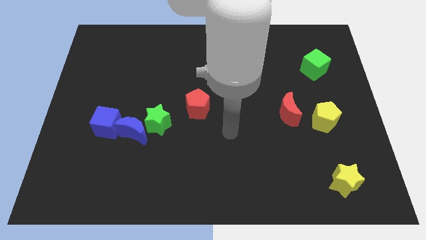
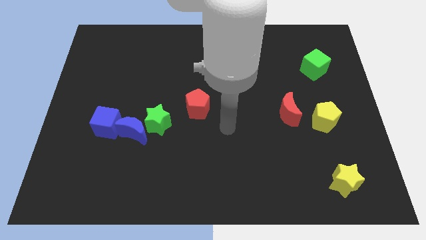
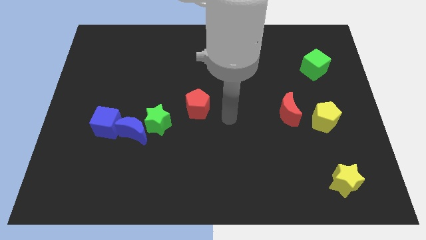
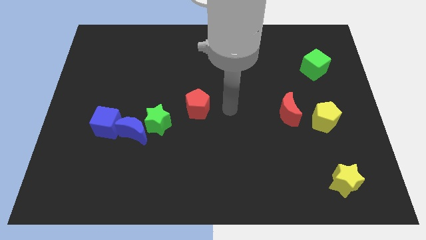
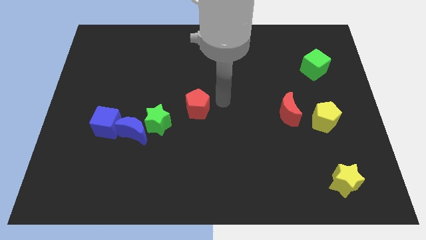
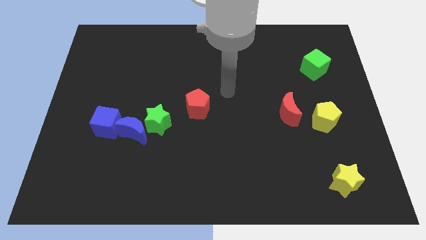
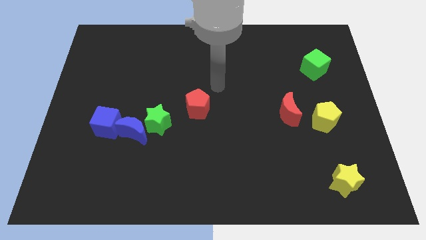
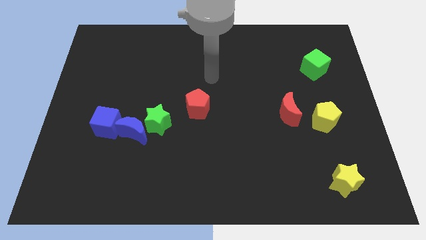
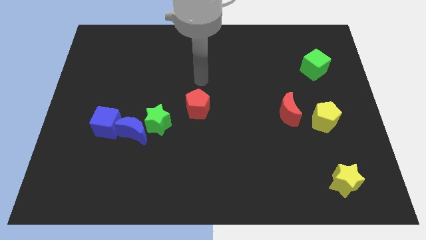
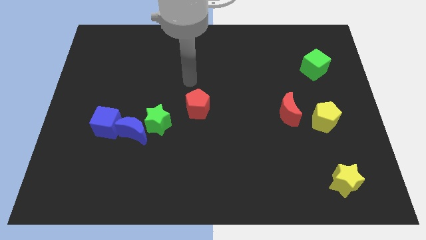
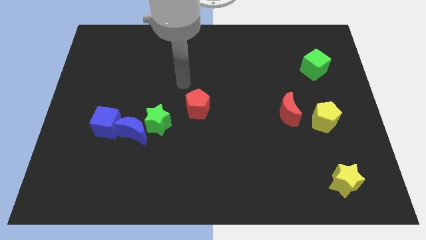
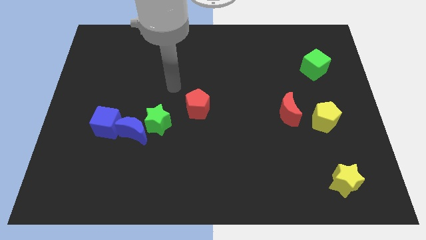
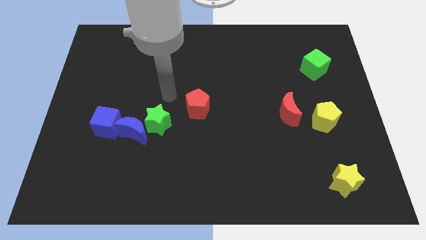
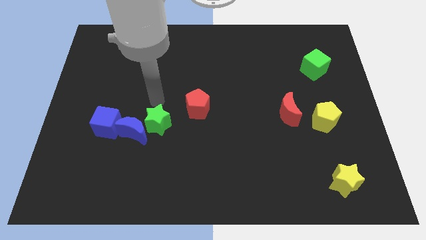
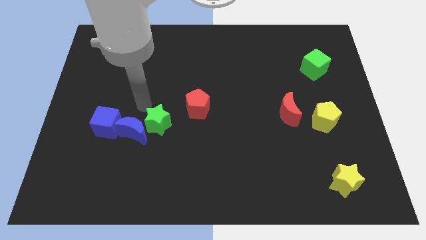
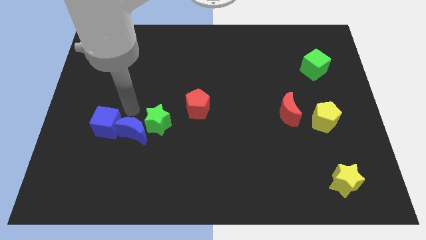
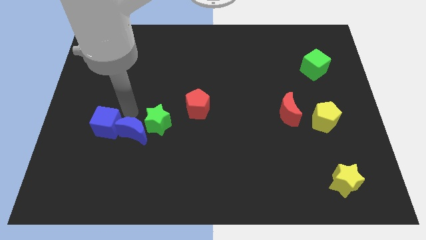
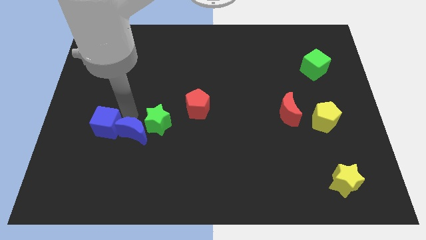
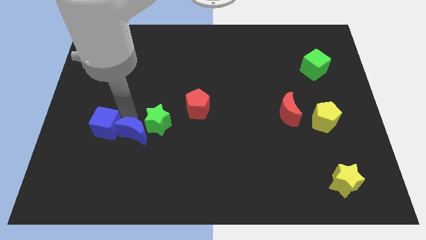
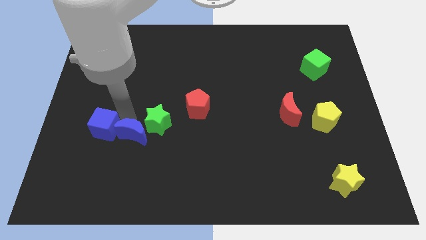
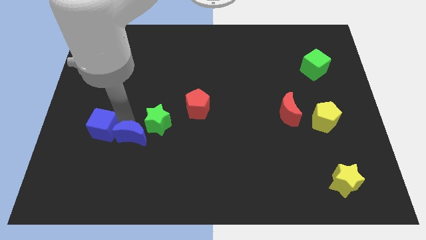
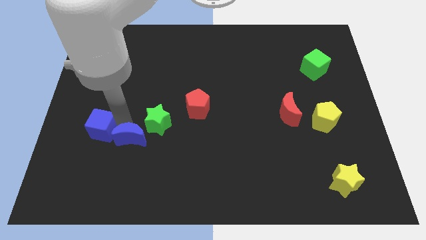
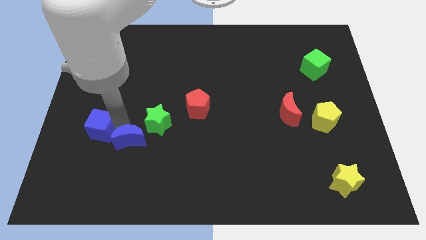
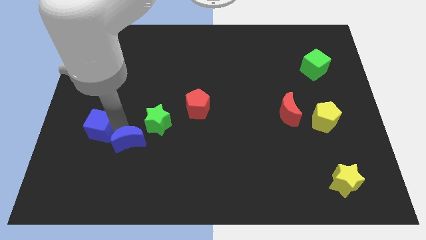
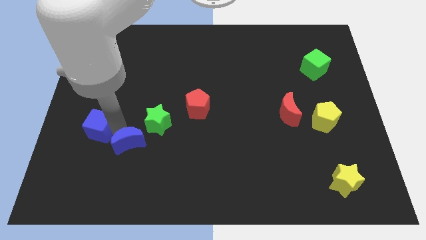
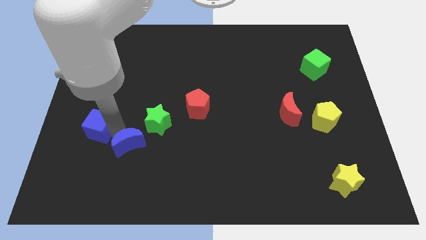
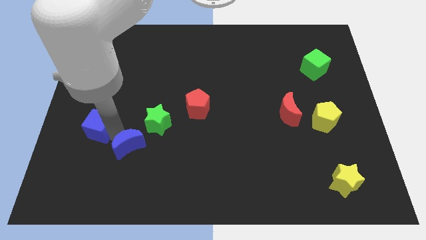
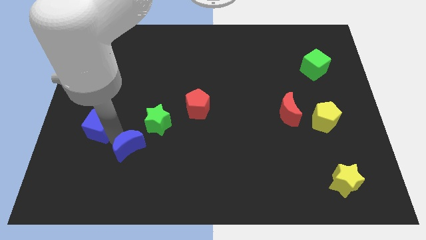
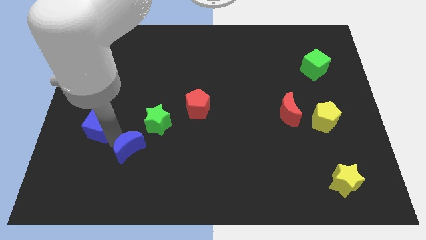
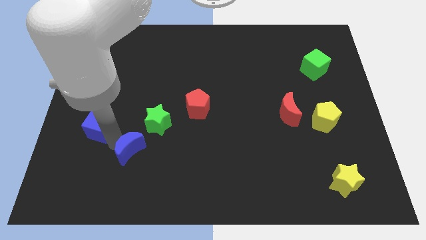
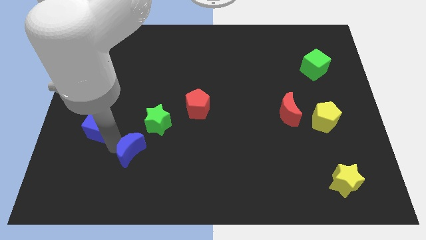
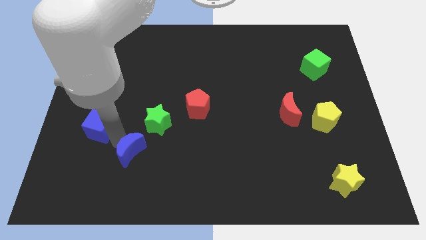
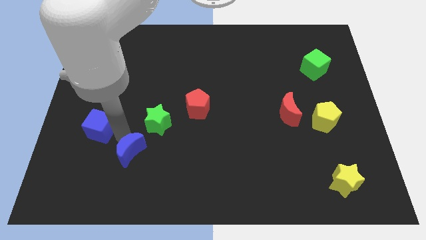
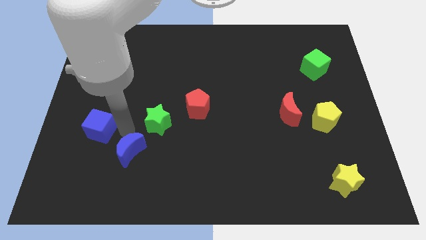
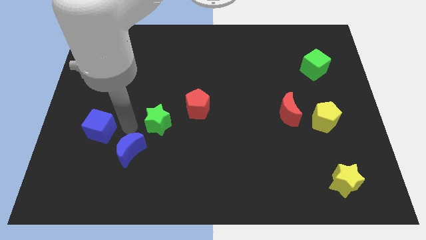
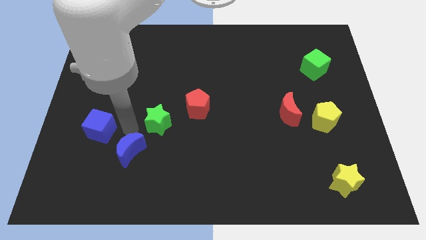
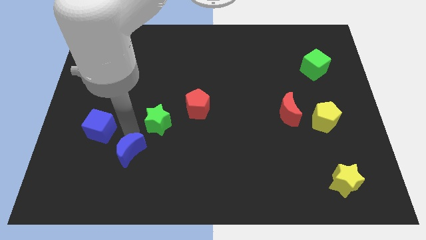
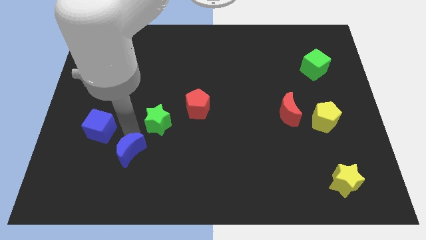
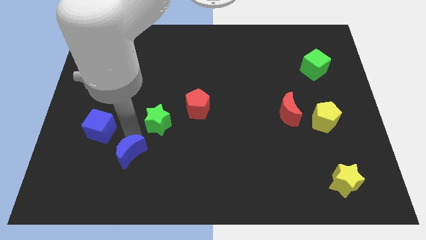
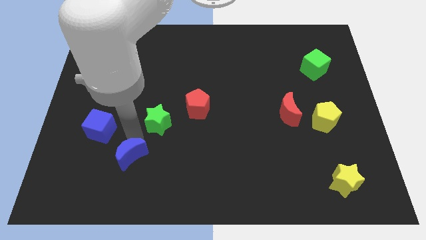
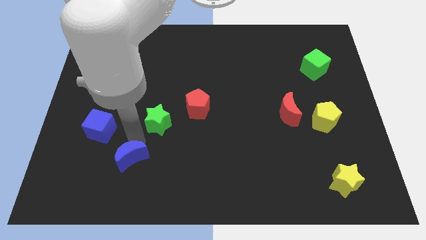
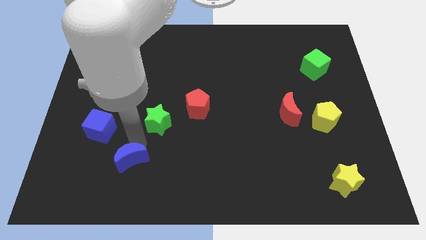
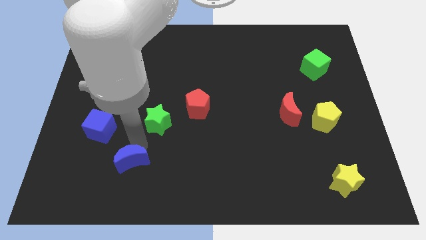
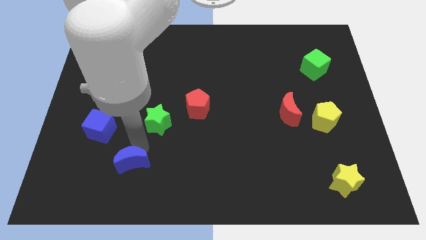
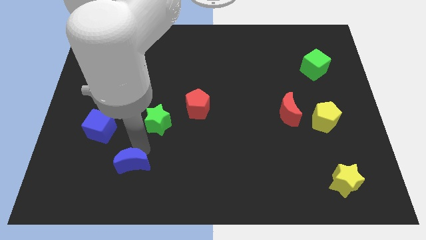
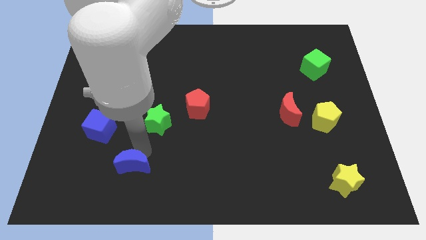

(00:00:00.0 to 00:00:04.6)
pull the blue moon apart from the green star and blue cube

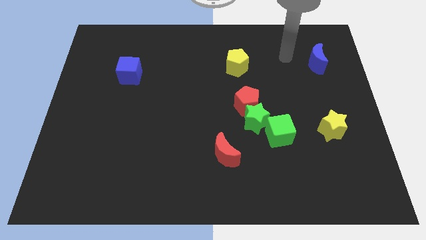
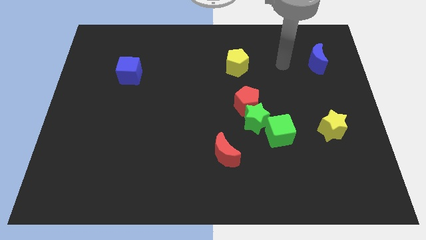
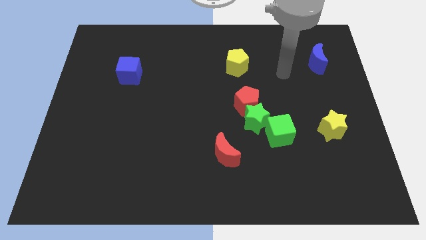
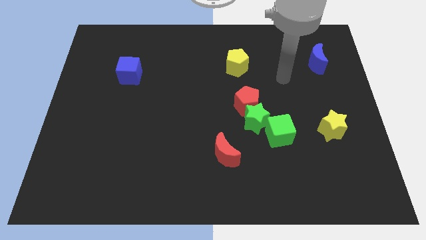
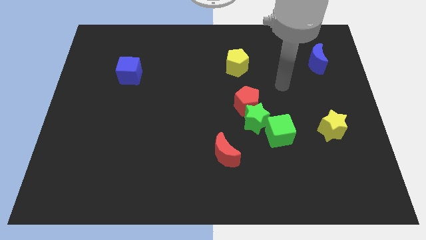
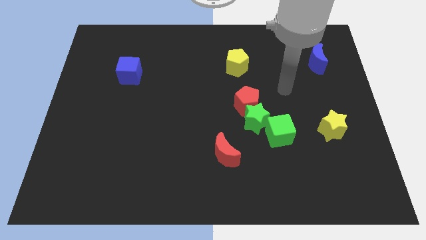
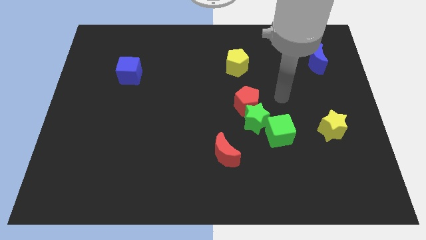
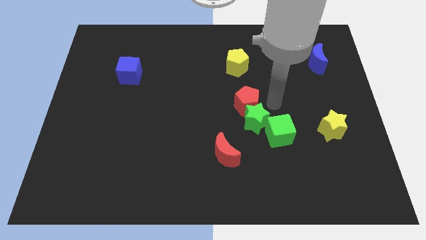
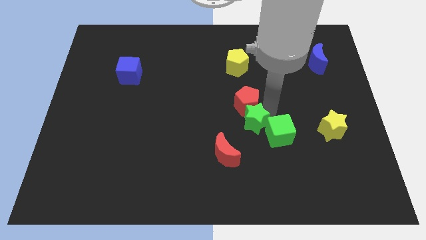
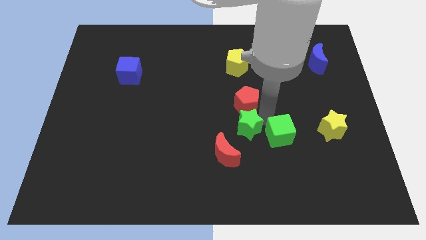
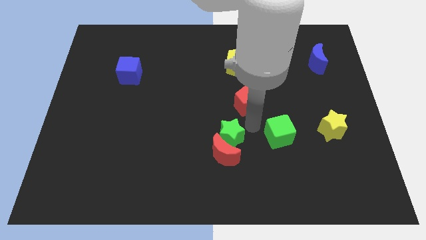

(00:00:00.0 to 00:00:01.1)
separate the red pentagon from the green star

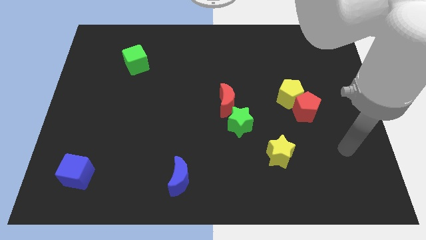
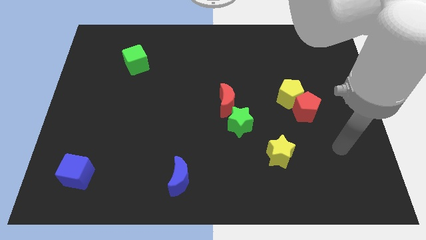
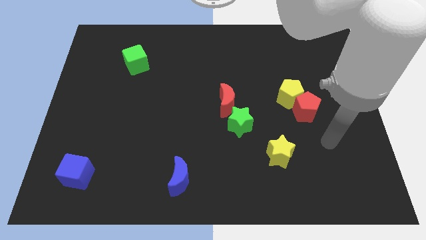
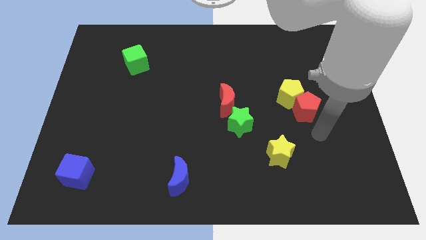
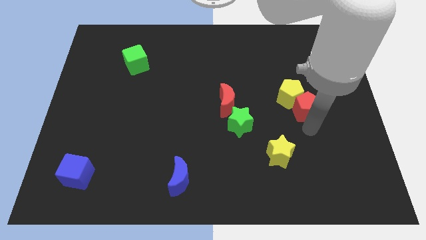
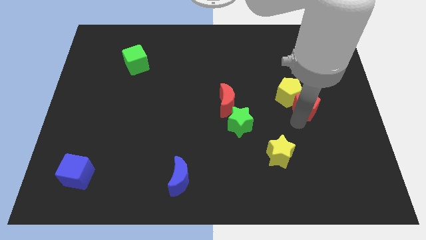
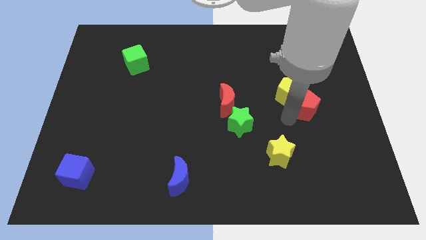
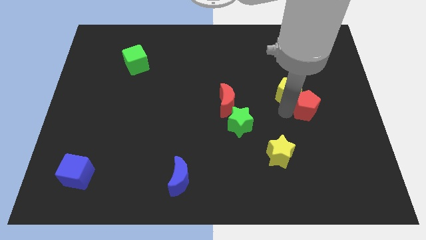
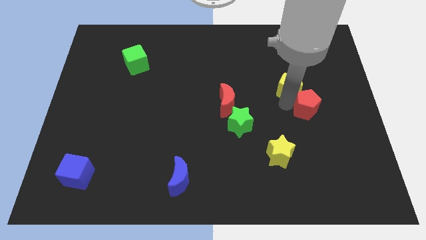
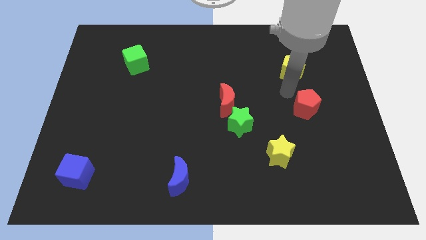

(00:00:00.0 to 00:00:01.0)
pull the red pentagon apart from the yellow pentagon

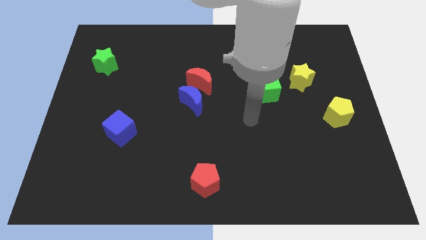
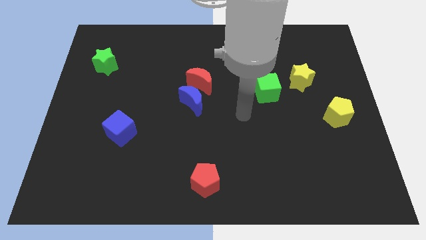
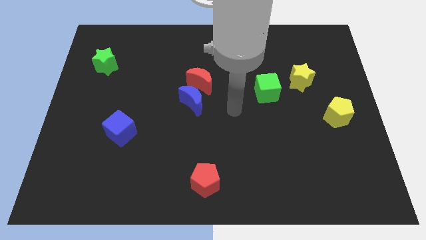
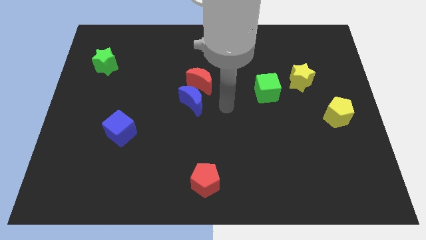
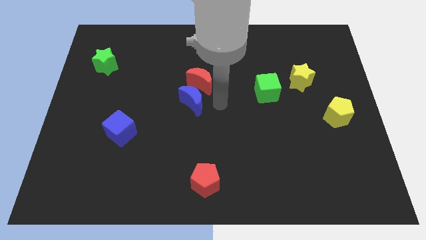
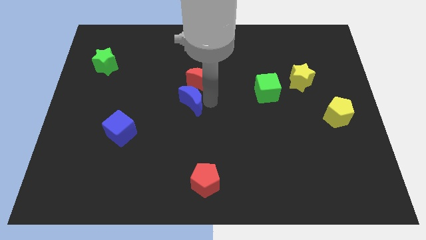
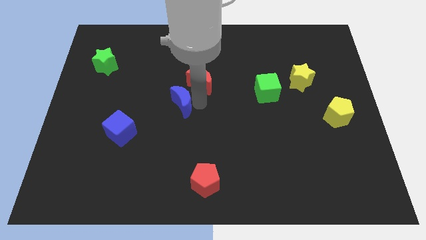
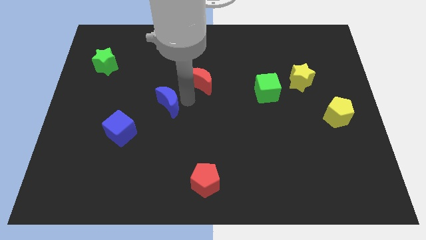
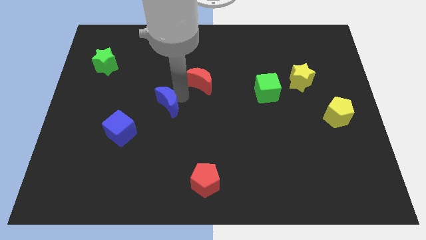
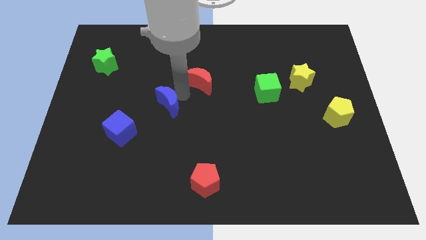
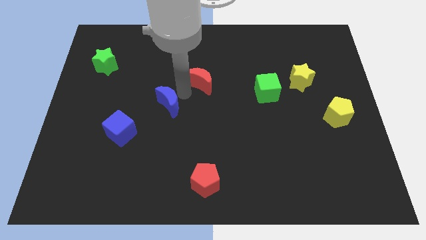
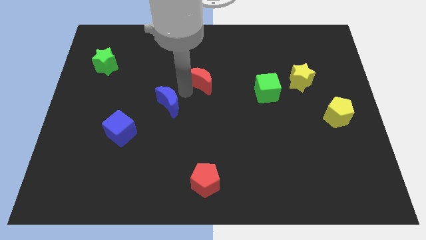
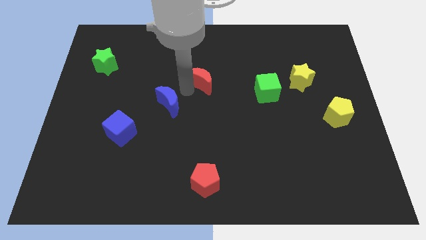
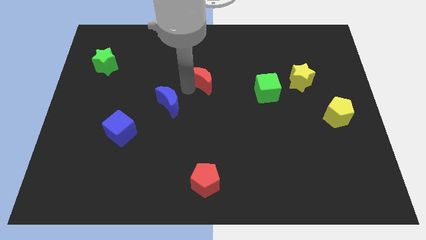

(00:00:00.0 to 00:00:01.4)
move the red moon away from the blue moon

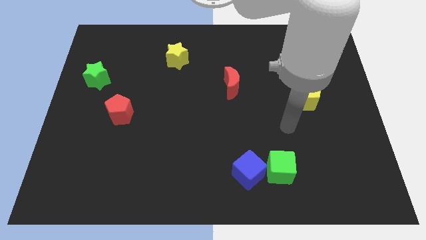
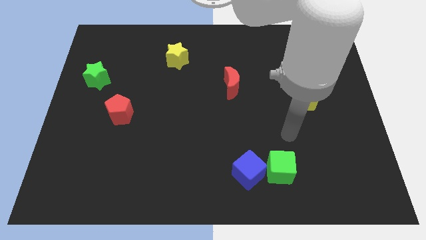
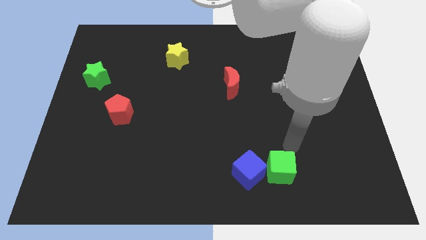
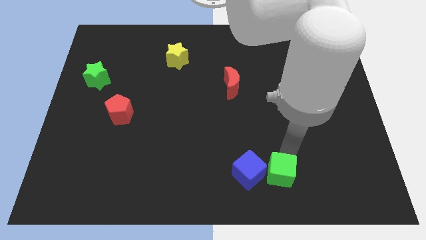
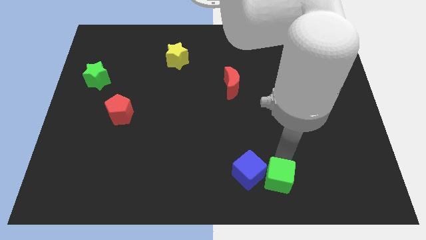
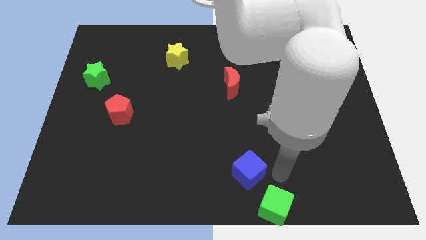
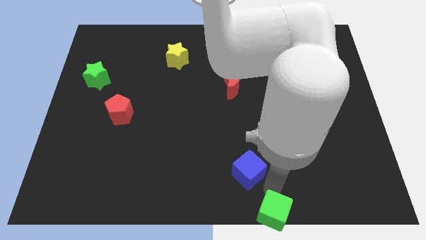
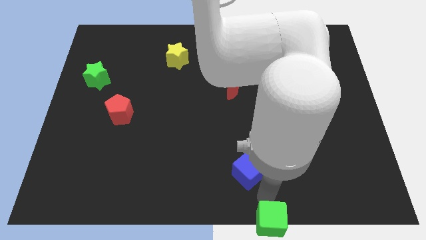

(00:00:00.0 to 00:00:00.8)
separate the blue cube from the green cube

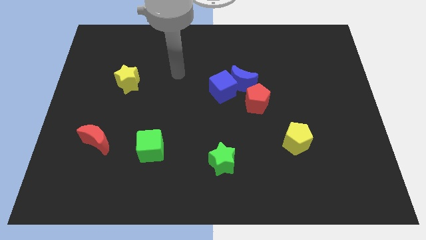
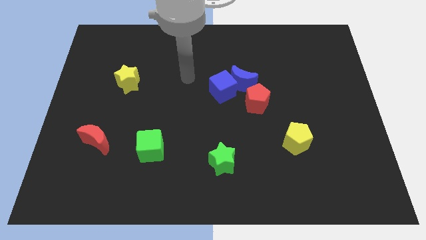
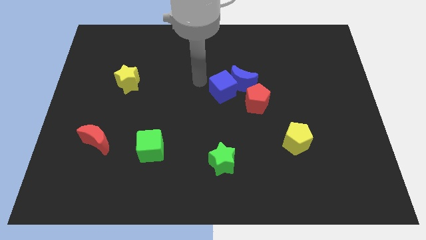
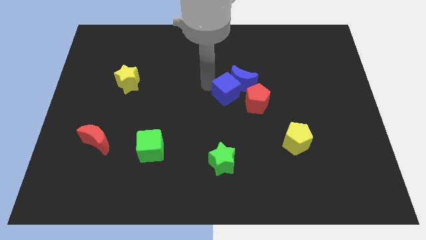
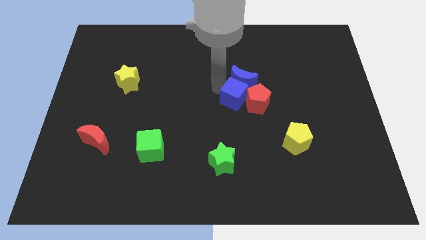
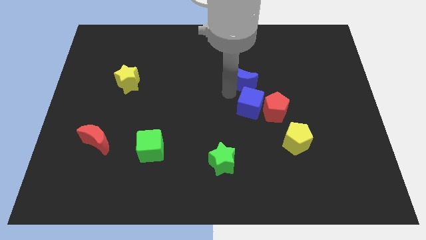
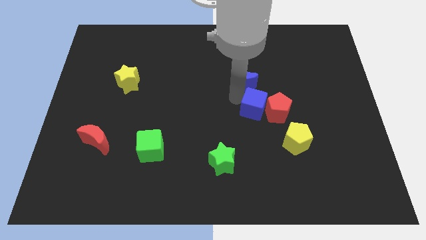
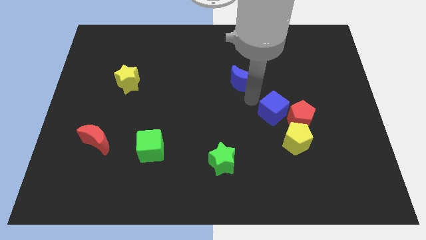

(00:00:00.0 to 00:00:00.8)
move the blue moon away from the blue cube and red pentagon
